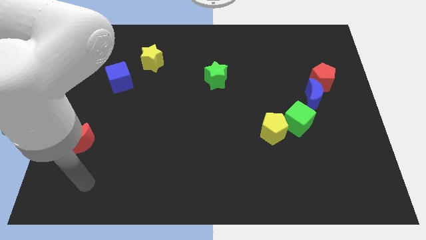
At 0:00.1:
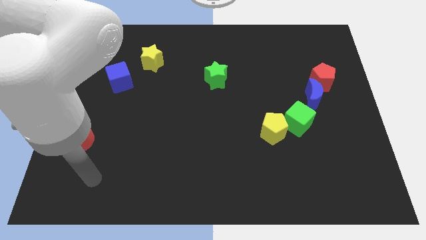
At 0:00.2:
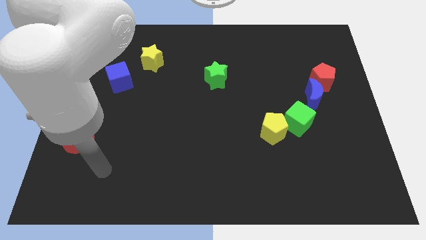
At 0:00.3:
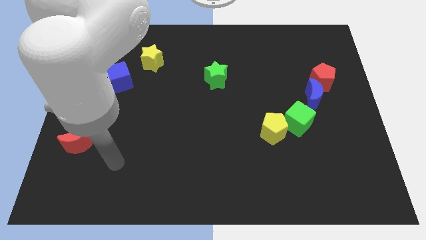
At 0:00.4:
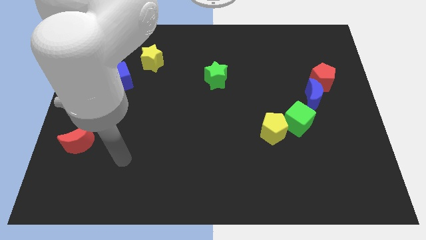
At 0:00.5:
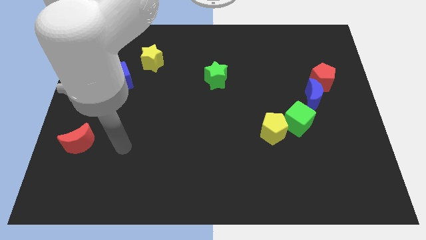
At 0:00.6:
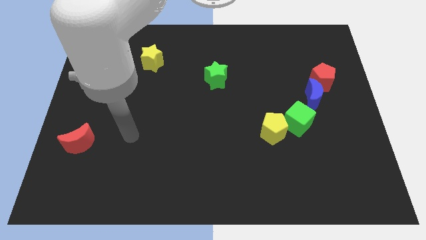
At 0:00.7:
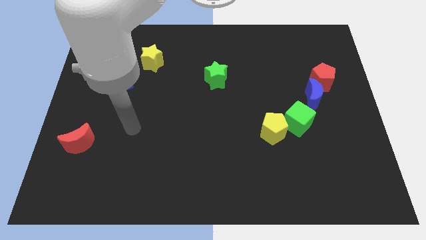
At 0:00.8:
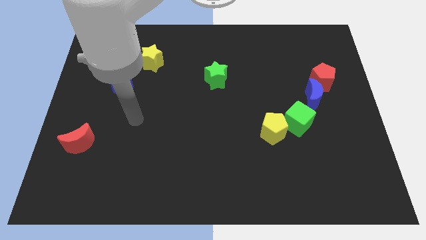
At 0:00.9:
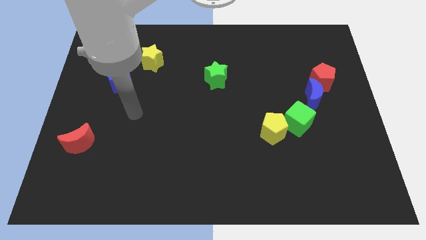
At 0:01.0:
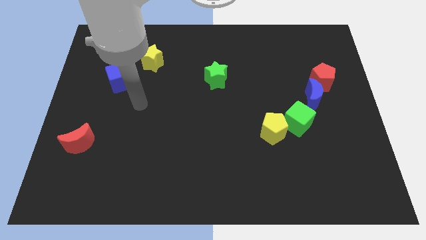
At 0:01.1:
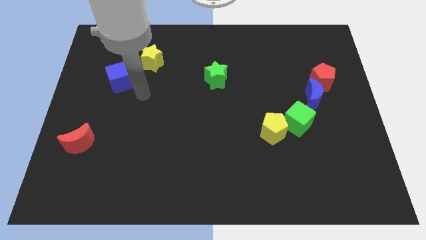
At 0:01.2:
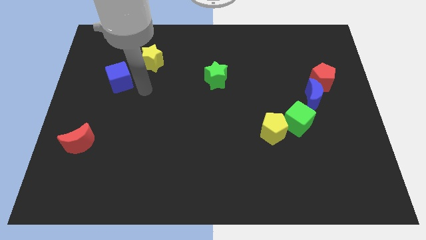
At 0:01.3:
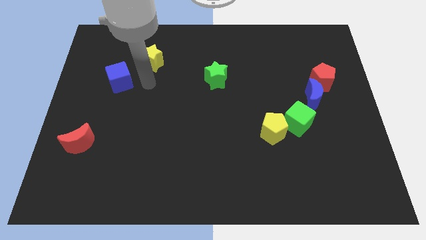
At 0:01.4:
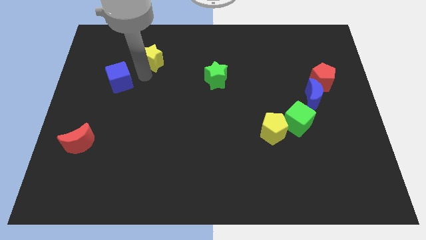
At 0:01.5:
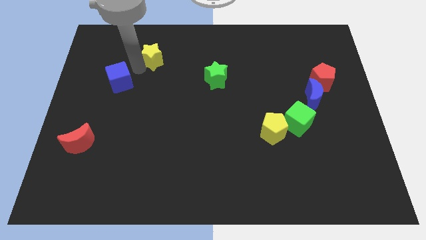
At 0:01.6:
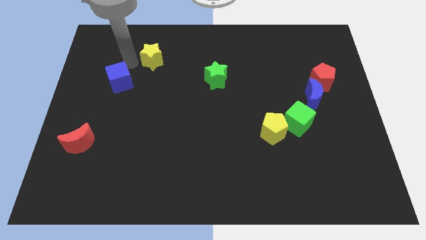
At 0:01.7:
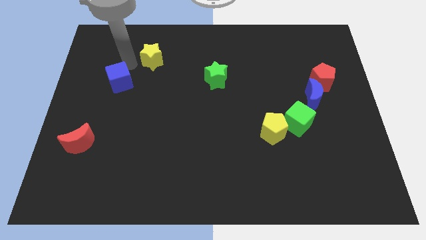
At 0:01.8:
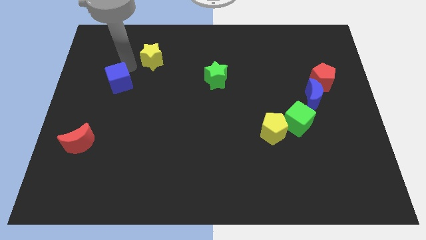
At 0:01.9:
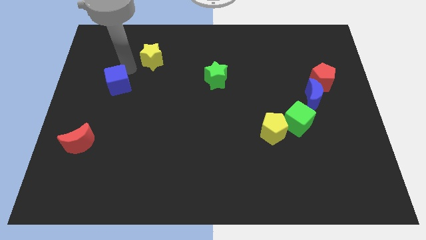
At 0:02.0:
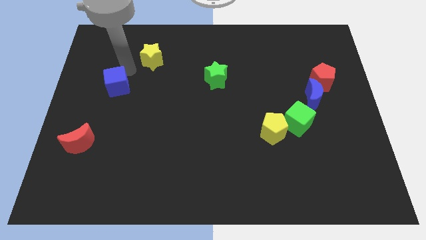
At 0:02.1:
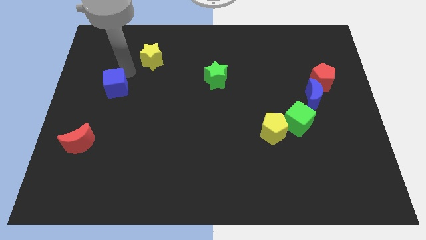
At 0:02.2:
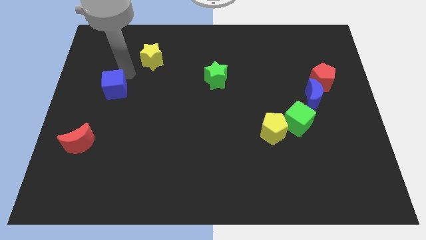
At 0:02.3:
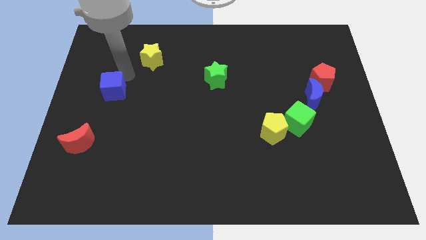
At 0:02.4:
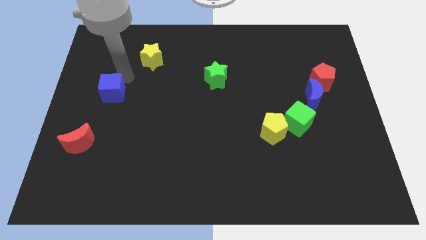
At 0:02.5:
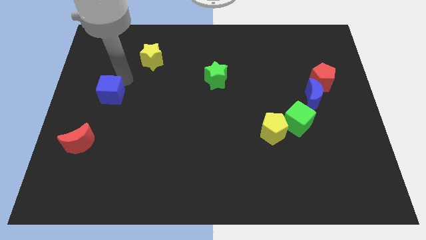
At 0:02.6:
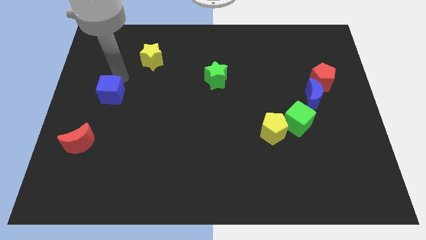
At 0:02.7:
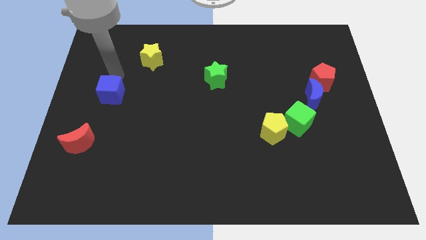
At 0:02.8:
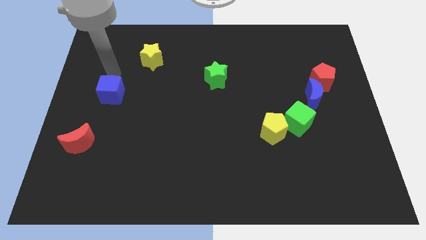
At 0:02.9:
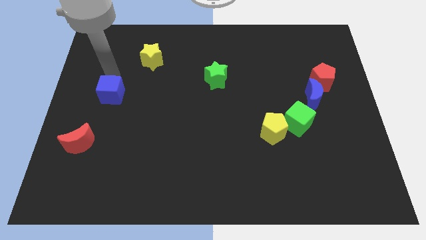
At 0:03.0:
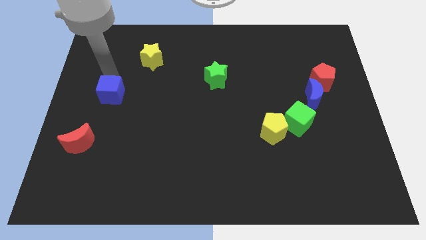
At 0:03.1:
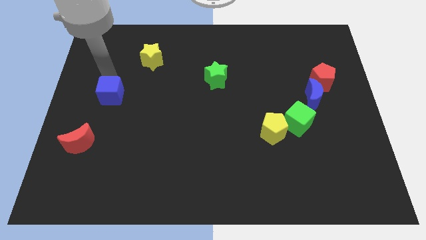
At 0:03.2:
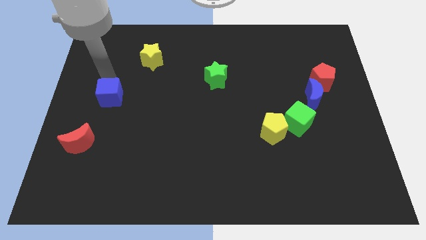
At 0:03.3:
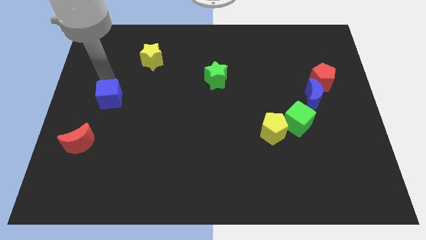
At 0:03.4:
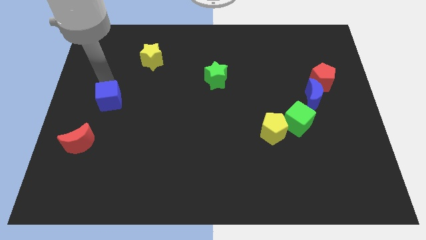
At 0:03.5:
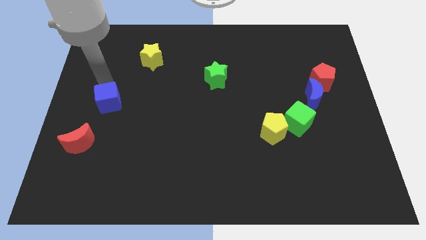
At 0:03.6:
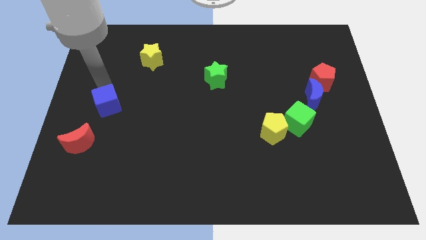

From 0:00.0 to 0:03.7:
push the blue cube downwards slightly

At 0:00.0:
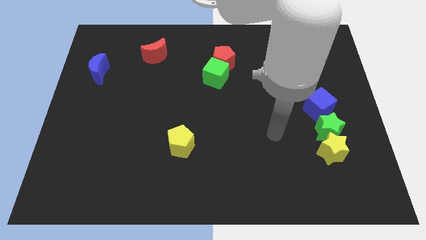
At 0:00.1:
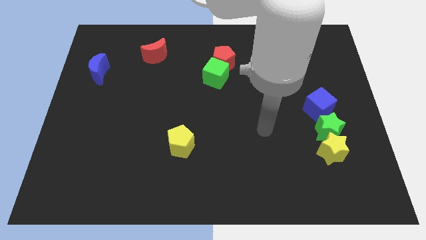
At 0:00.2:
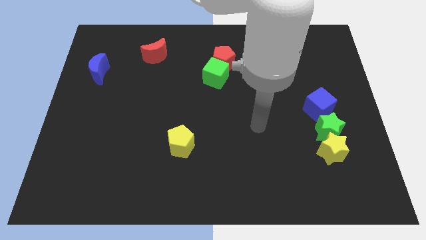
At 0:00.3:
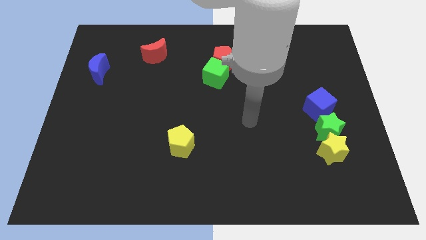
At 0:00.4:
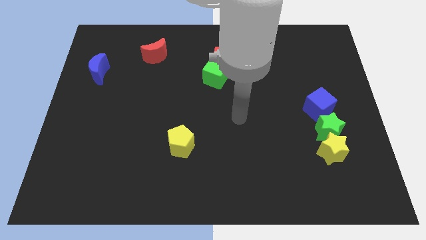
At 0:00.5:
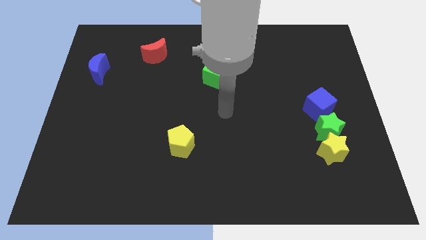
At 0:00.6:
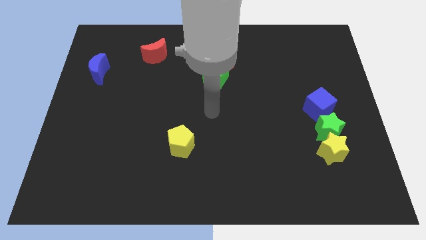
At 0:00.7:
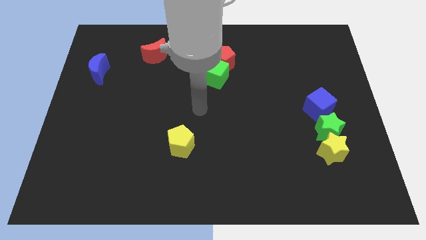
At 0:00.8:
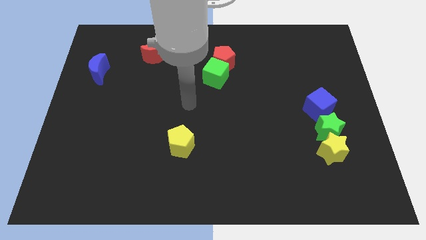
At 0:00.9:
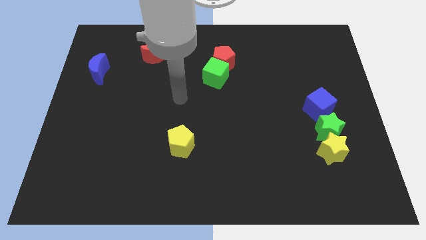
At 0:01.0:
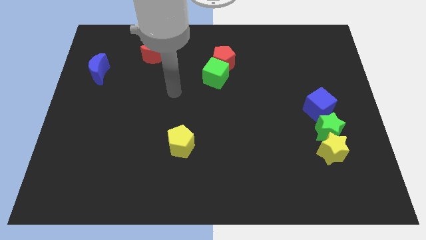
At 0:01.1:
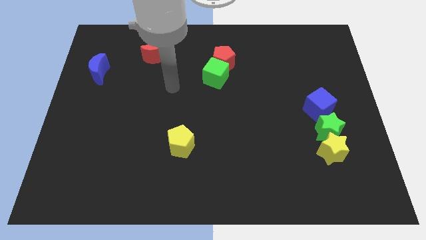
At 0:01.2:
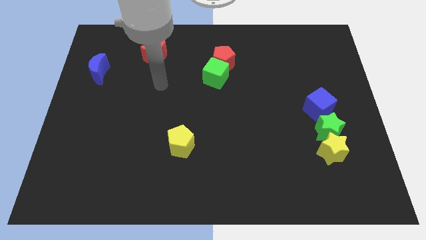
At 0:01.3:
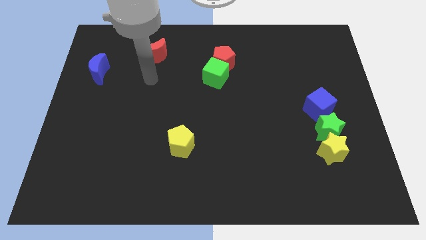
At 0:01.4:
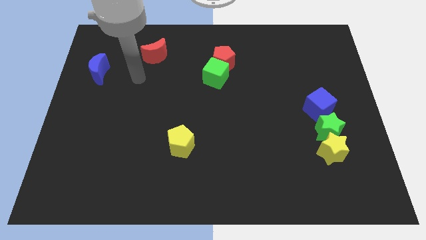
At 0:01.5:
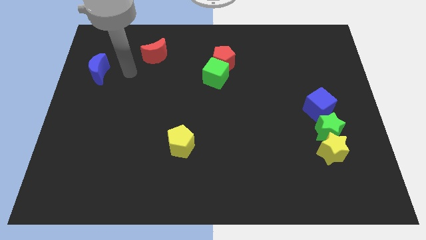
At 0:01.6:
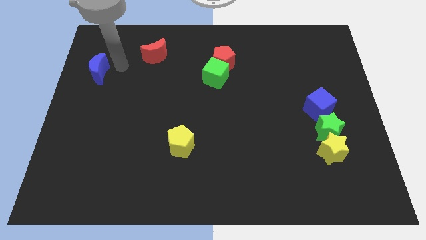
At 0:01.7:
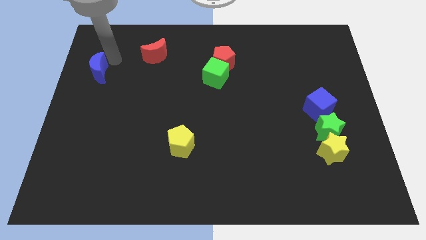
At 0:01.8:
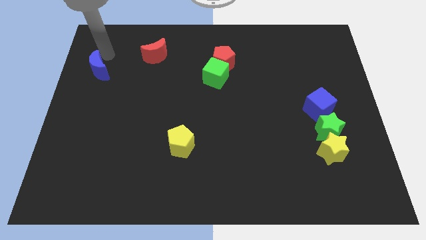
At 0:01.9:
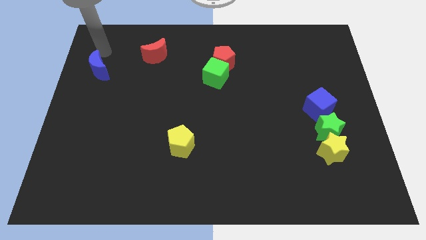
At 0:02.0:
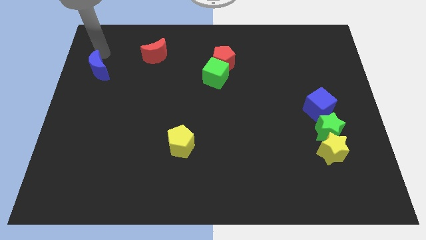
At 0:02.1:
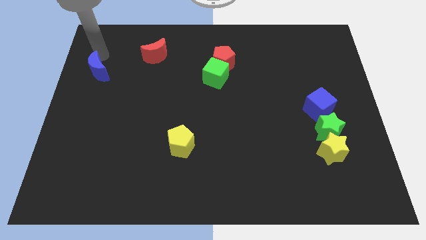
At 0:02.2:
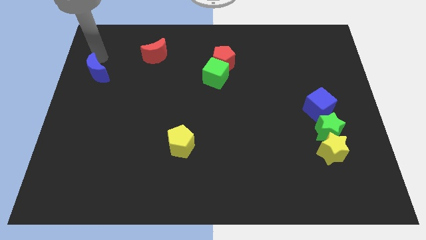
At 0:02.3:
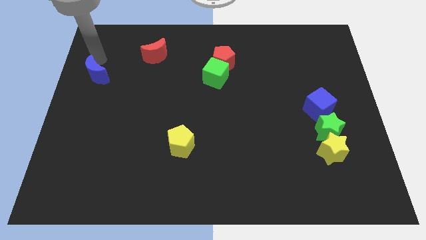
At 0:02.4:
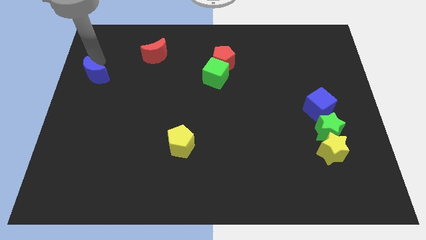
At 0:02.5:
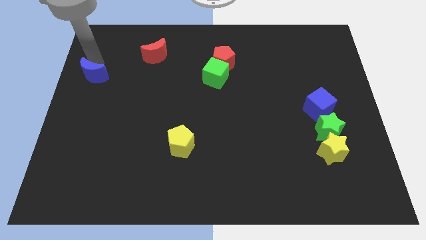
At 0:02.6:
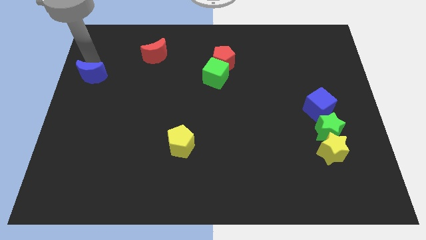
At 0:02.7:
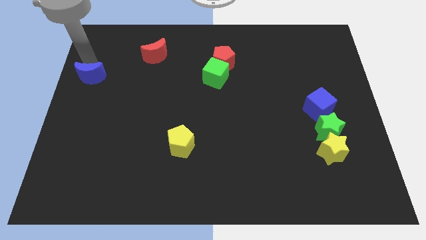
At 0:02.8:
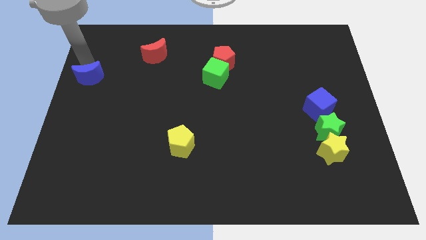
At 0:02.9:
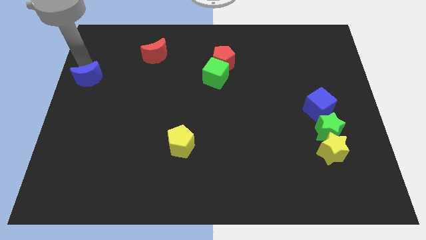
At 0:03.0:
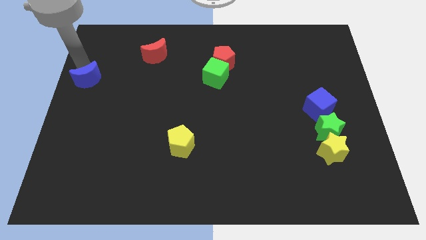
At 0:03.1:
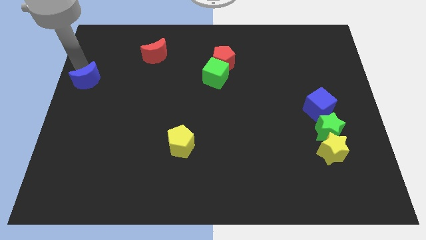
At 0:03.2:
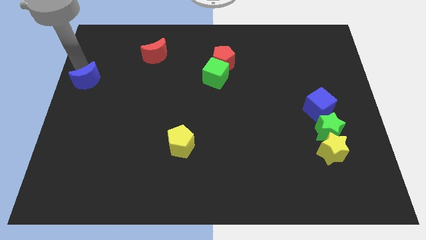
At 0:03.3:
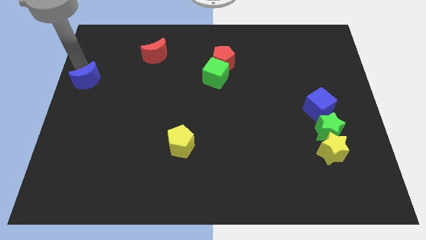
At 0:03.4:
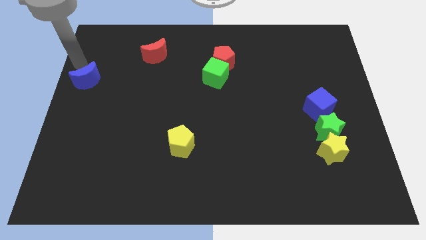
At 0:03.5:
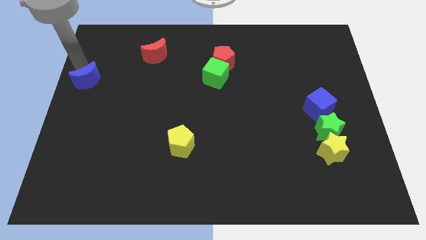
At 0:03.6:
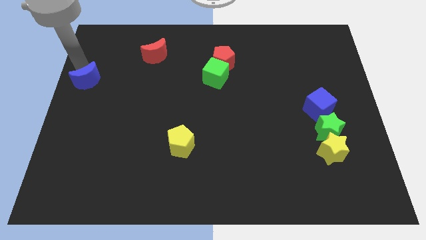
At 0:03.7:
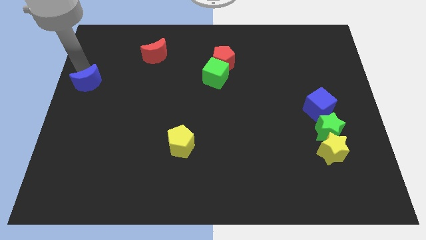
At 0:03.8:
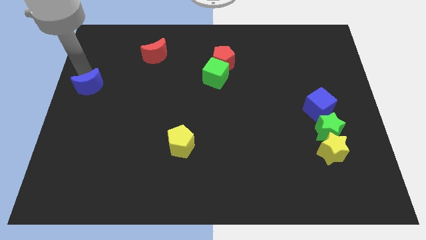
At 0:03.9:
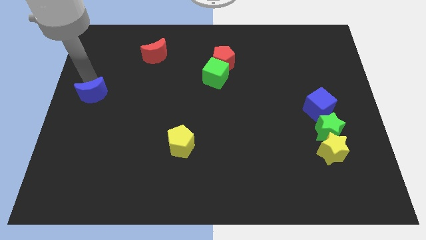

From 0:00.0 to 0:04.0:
slide the blue moon somewhat downwards

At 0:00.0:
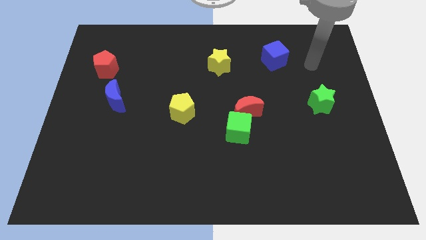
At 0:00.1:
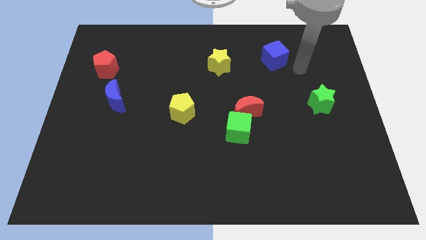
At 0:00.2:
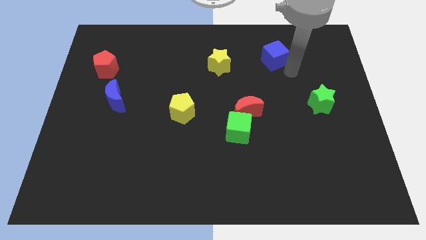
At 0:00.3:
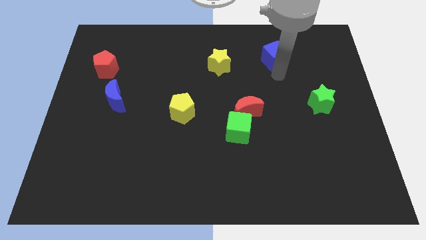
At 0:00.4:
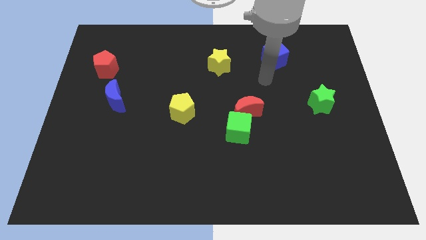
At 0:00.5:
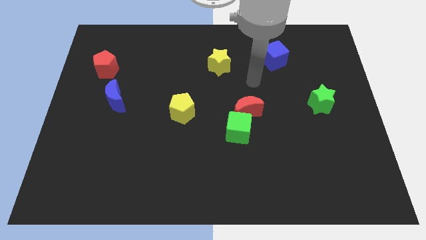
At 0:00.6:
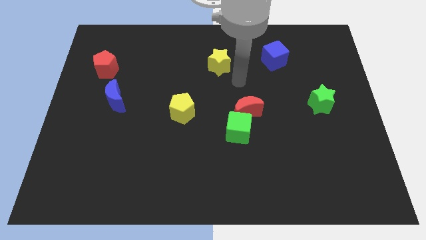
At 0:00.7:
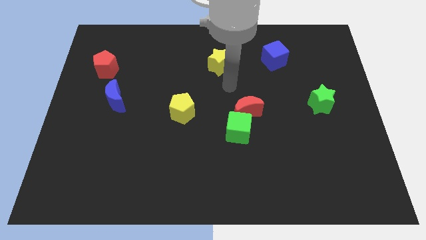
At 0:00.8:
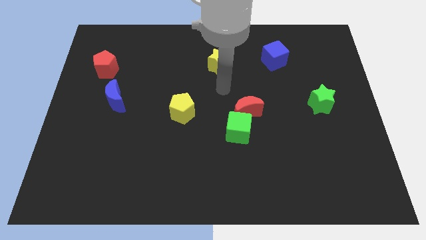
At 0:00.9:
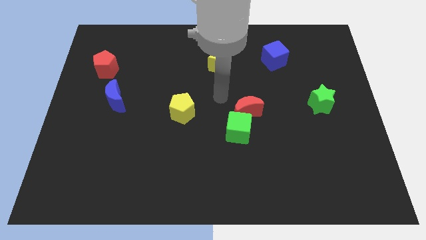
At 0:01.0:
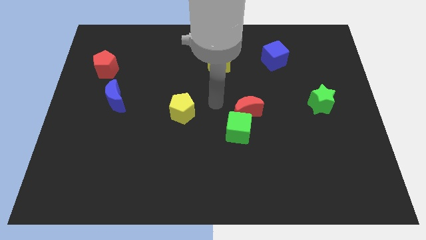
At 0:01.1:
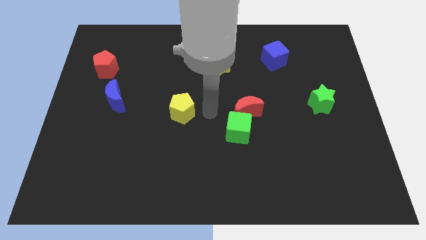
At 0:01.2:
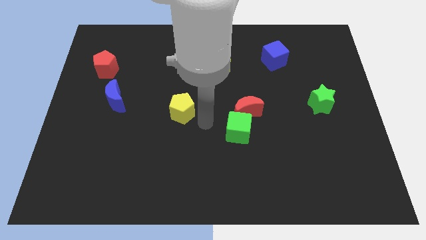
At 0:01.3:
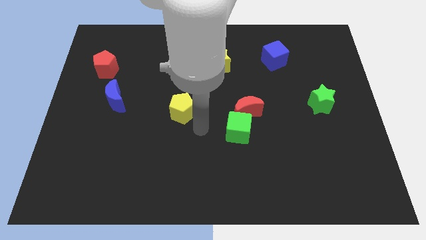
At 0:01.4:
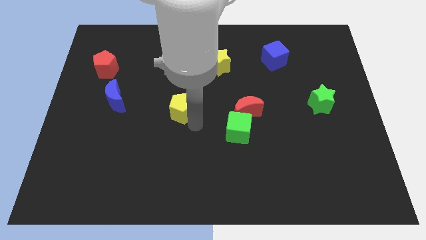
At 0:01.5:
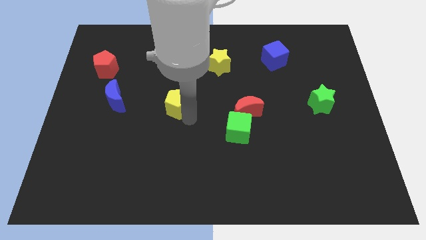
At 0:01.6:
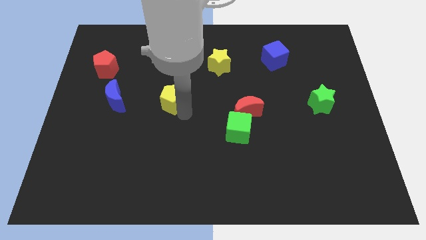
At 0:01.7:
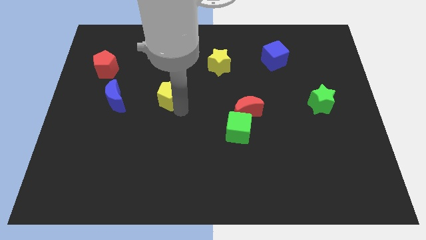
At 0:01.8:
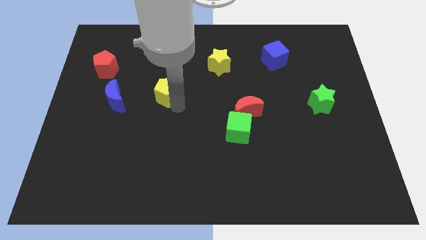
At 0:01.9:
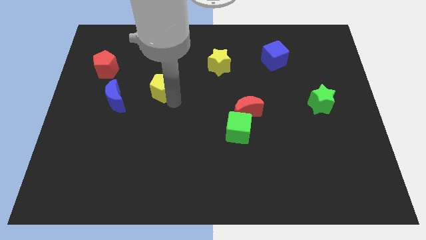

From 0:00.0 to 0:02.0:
slightly slide the yellow pentagon up and to the left
